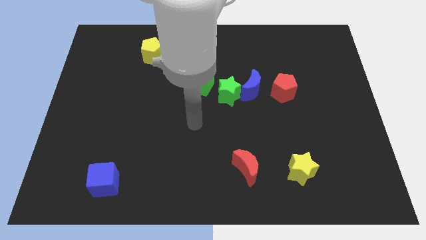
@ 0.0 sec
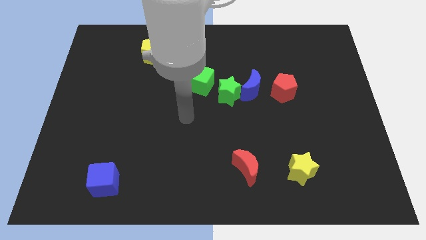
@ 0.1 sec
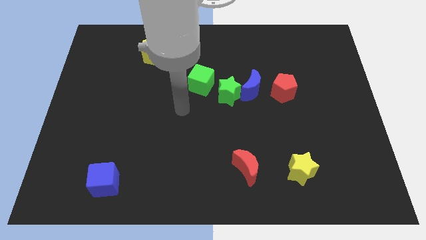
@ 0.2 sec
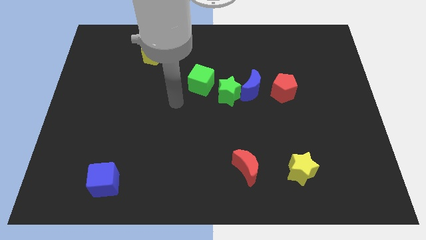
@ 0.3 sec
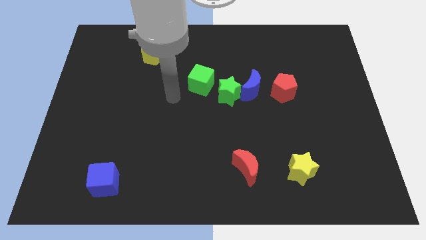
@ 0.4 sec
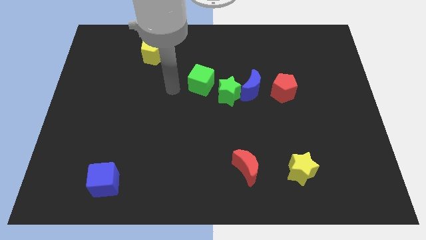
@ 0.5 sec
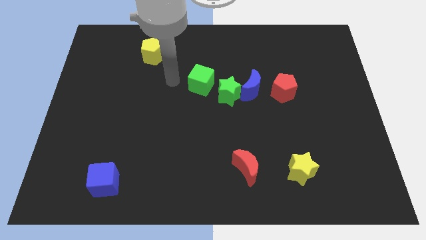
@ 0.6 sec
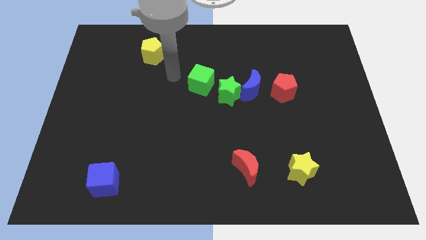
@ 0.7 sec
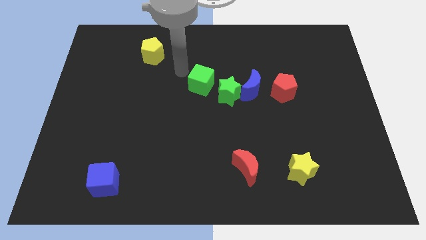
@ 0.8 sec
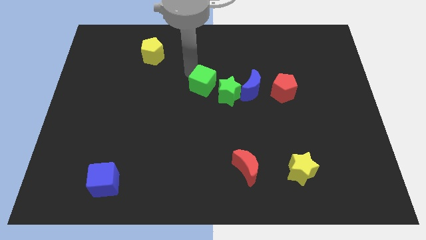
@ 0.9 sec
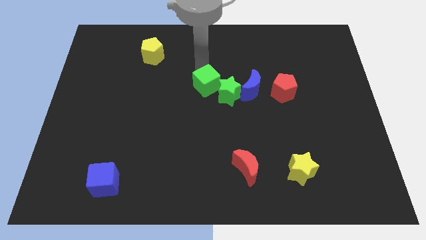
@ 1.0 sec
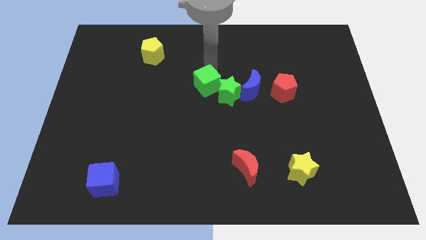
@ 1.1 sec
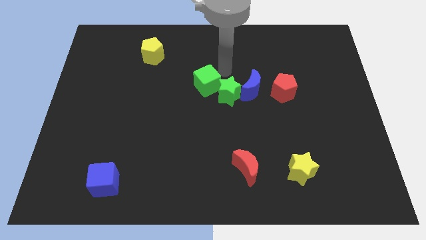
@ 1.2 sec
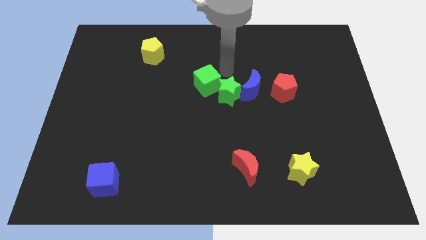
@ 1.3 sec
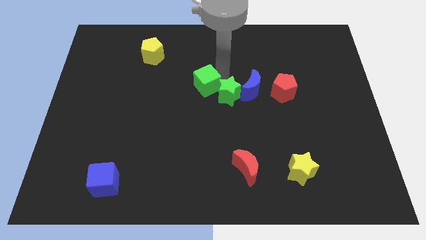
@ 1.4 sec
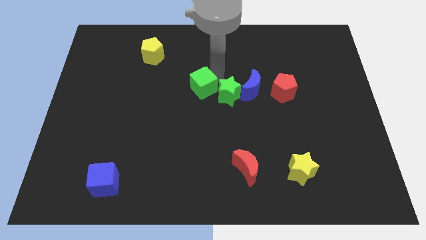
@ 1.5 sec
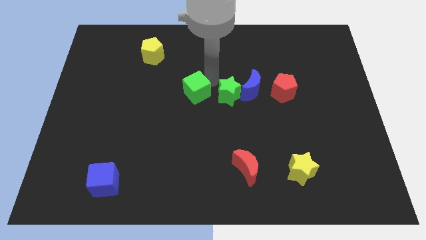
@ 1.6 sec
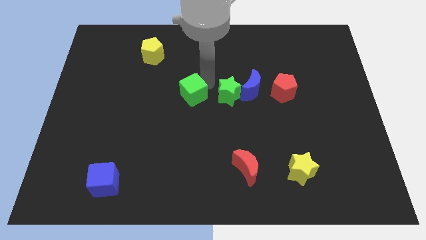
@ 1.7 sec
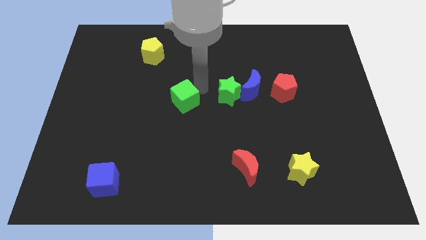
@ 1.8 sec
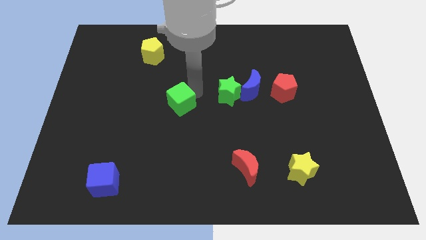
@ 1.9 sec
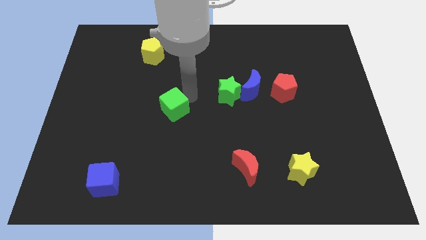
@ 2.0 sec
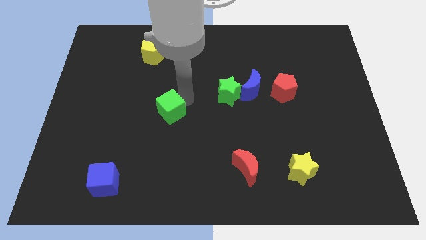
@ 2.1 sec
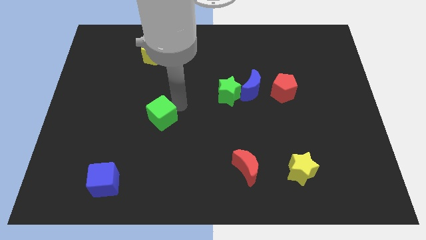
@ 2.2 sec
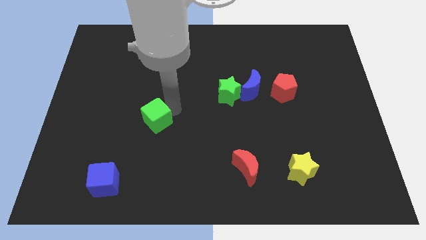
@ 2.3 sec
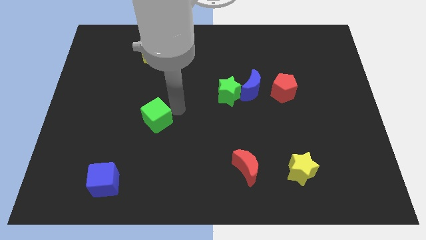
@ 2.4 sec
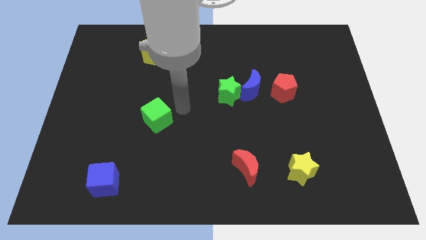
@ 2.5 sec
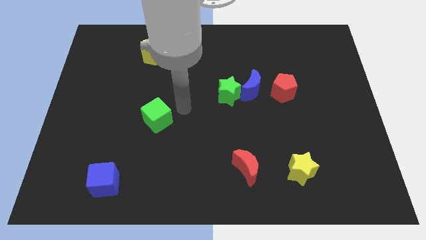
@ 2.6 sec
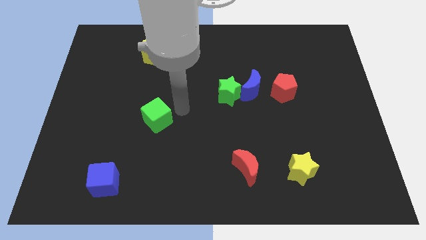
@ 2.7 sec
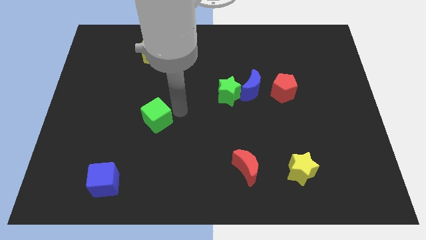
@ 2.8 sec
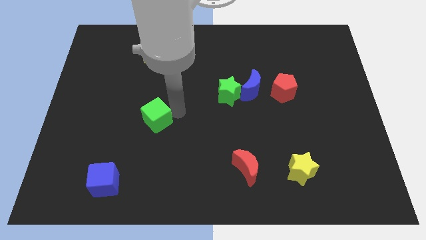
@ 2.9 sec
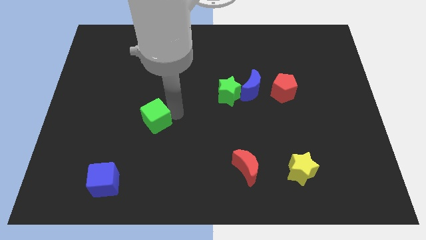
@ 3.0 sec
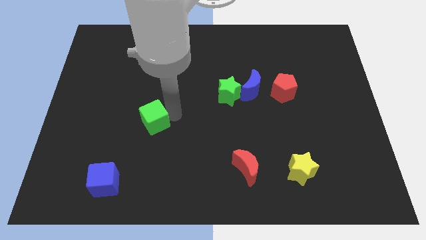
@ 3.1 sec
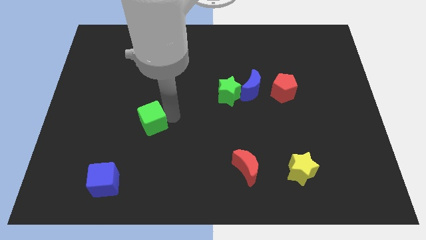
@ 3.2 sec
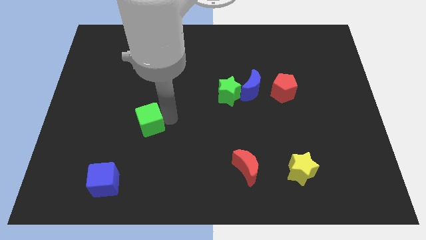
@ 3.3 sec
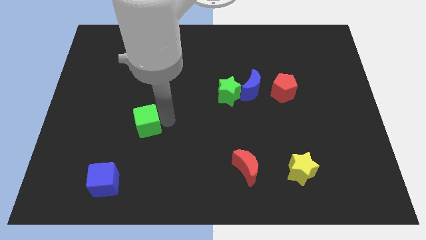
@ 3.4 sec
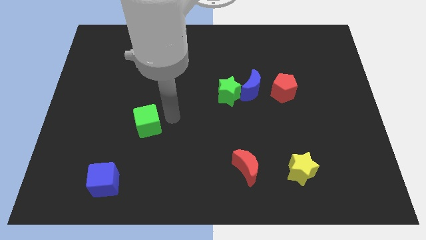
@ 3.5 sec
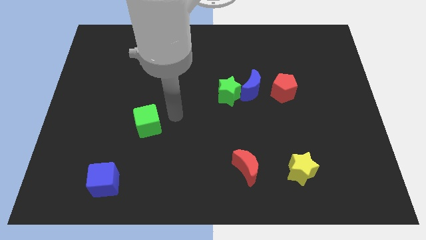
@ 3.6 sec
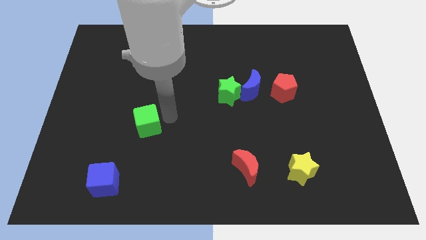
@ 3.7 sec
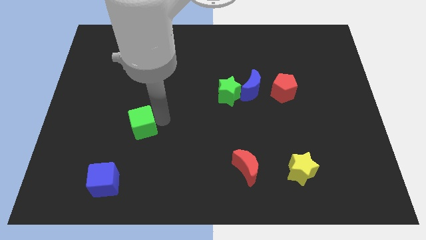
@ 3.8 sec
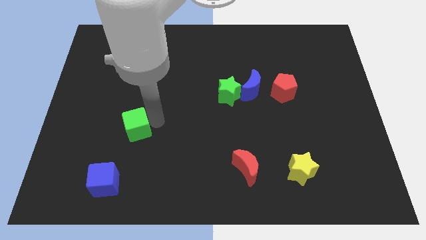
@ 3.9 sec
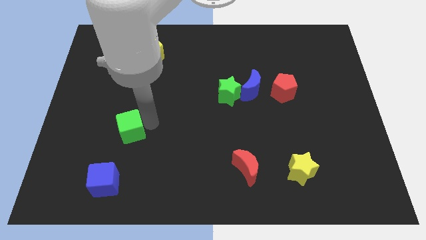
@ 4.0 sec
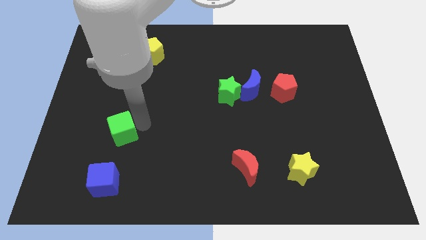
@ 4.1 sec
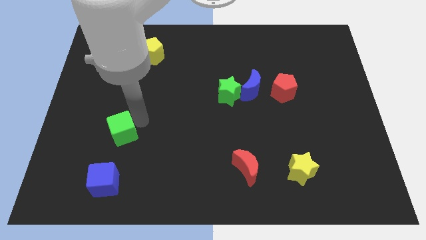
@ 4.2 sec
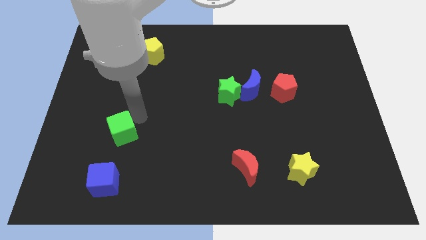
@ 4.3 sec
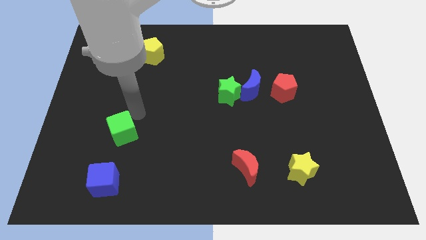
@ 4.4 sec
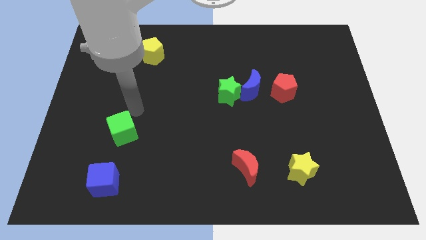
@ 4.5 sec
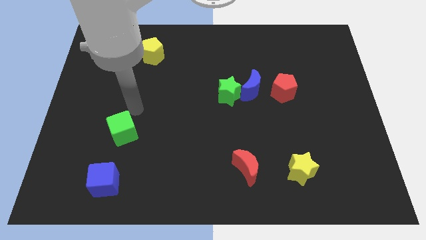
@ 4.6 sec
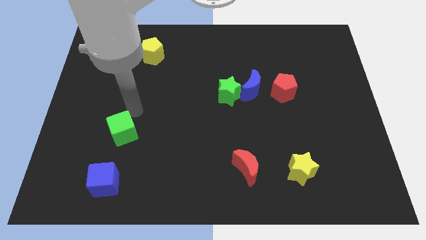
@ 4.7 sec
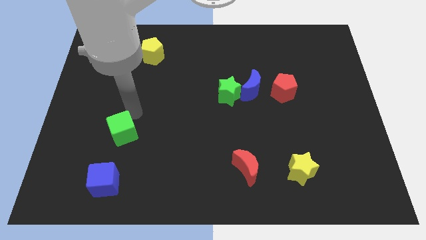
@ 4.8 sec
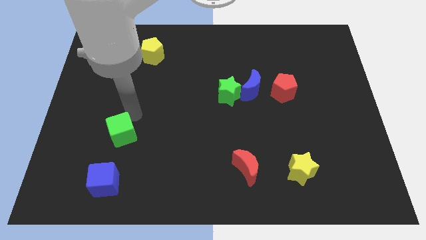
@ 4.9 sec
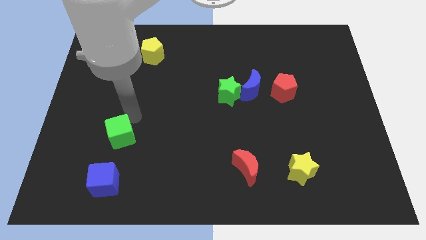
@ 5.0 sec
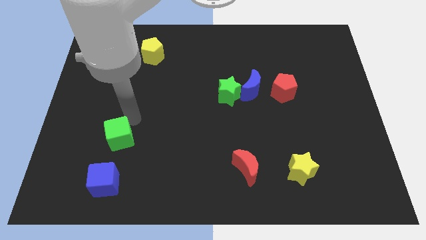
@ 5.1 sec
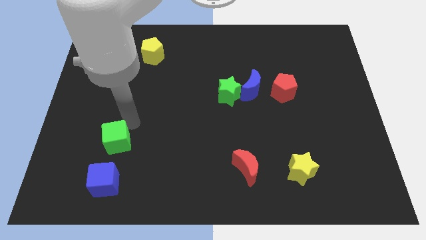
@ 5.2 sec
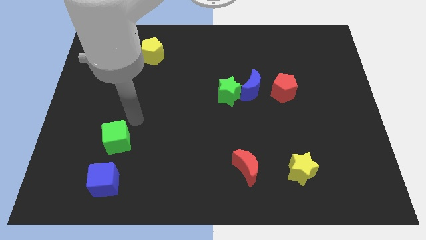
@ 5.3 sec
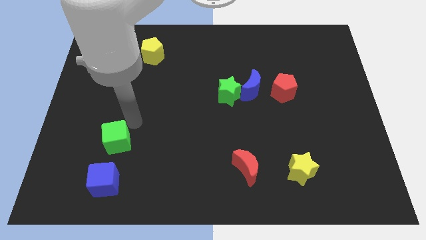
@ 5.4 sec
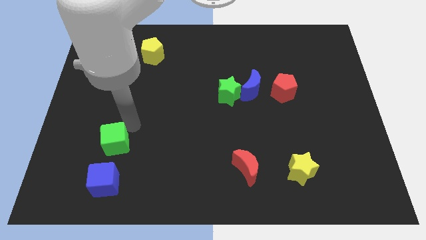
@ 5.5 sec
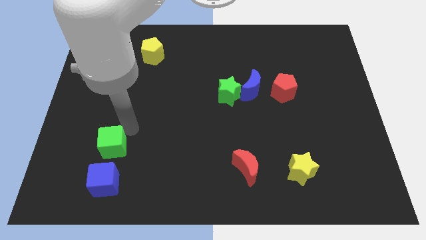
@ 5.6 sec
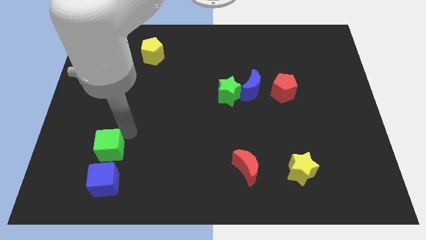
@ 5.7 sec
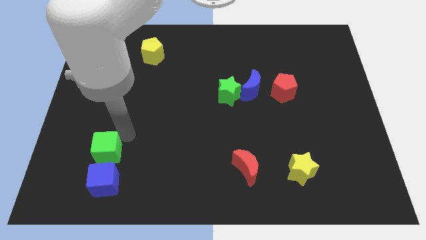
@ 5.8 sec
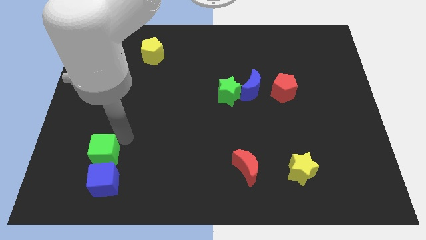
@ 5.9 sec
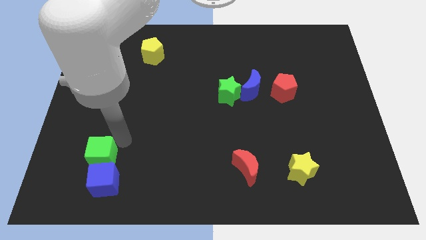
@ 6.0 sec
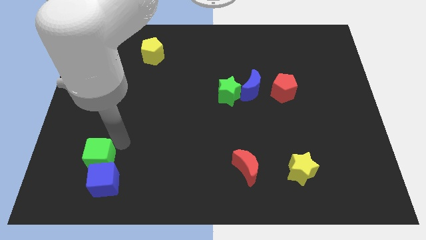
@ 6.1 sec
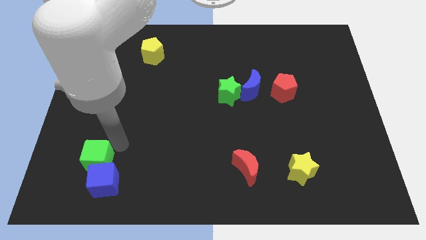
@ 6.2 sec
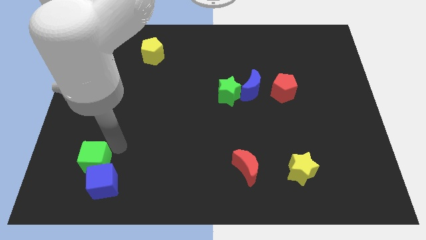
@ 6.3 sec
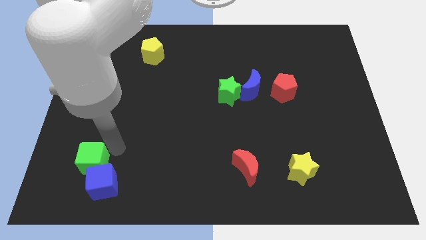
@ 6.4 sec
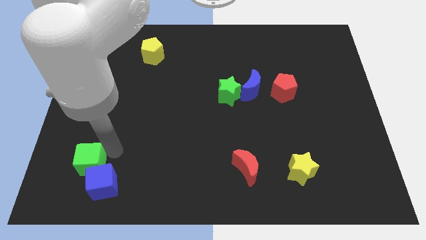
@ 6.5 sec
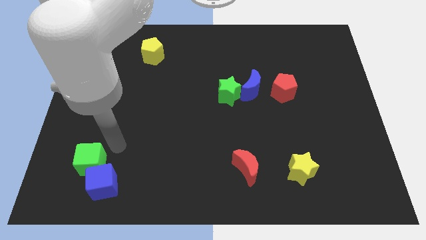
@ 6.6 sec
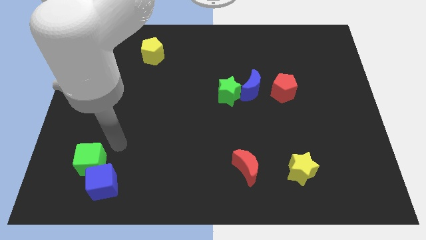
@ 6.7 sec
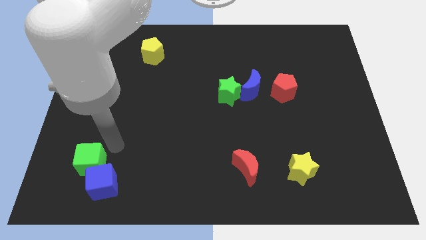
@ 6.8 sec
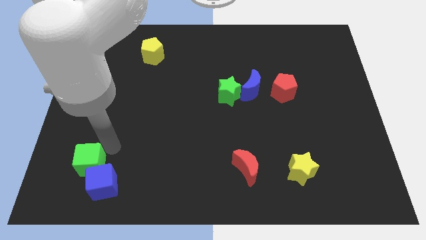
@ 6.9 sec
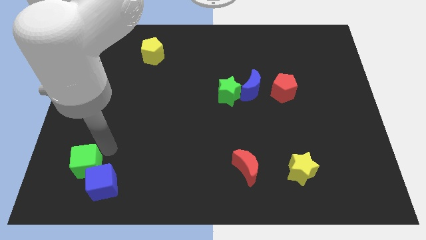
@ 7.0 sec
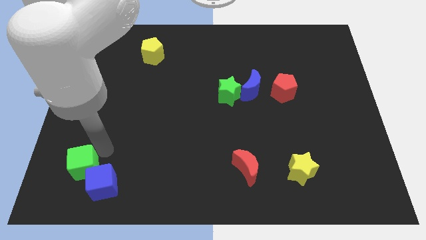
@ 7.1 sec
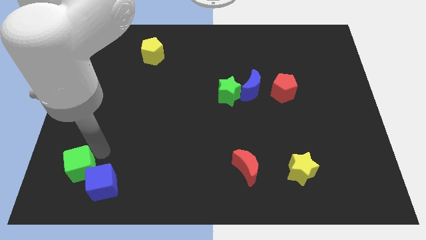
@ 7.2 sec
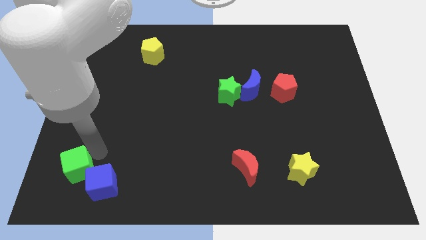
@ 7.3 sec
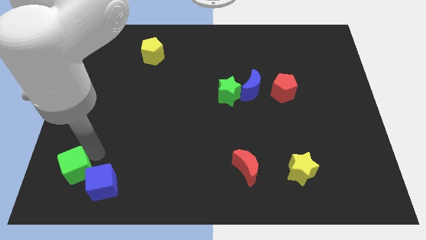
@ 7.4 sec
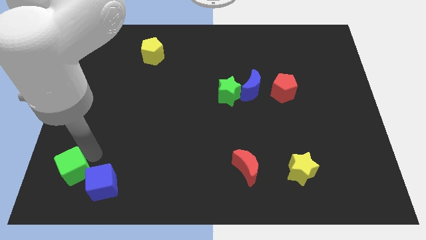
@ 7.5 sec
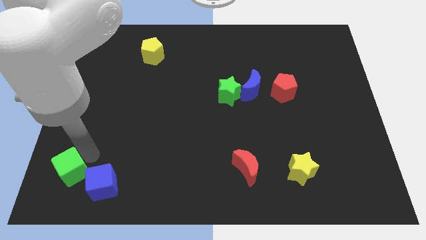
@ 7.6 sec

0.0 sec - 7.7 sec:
push the green cube to the bottom left
